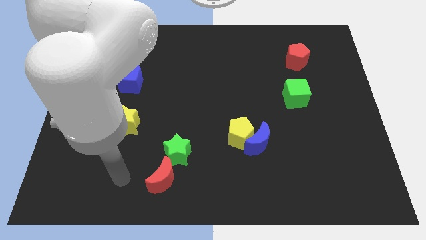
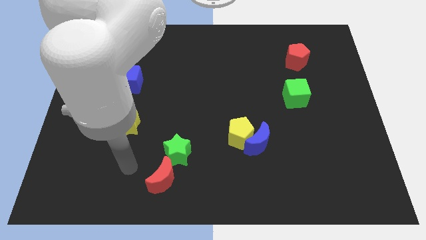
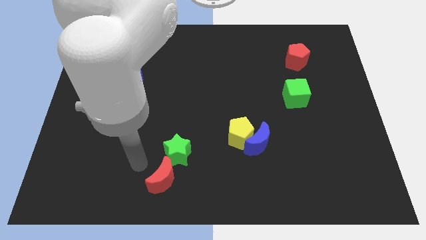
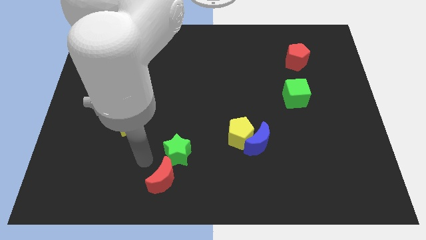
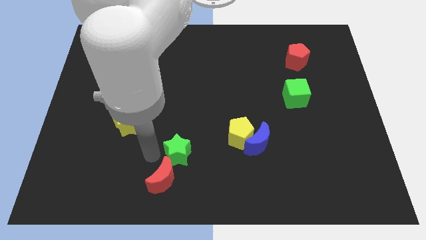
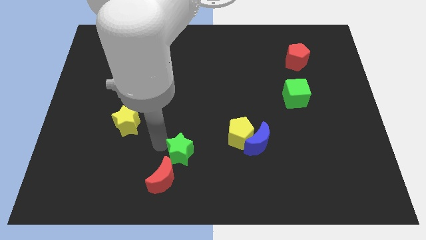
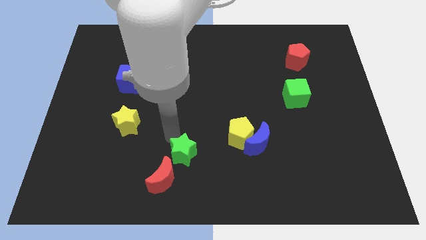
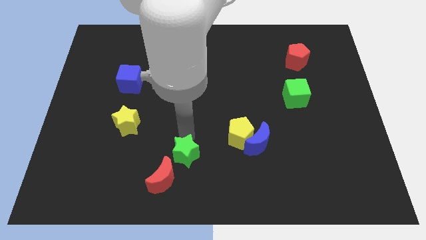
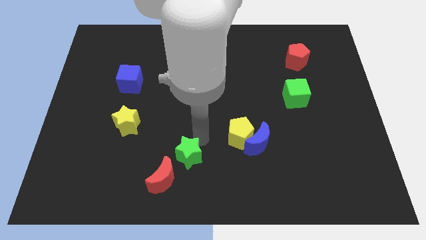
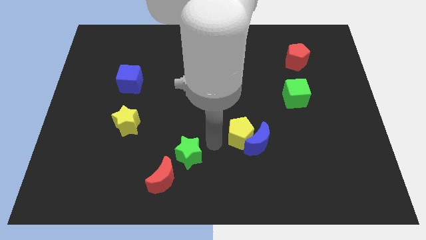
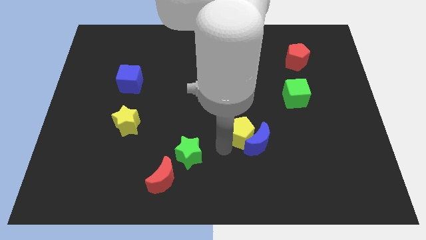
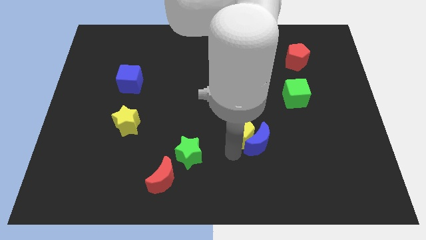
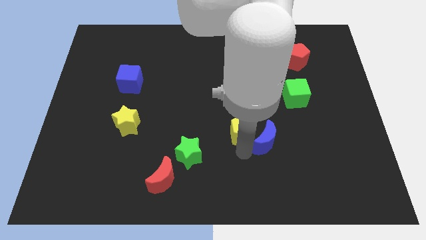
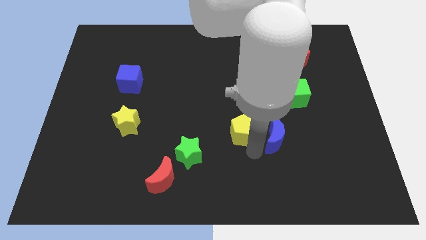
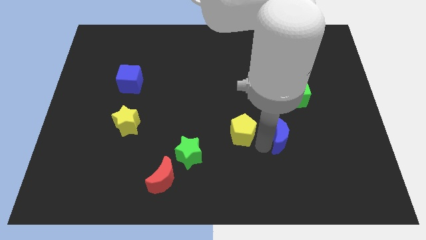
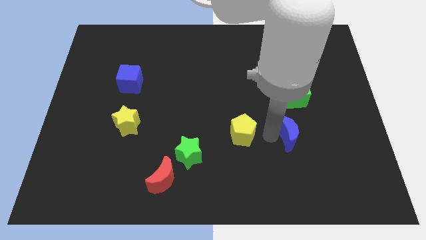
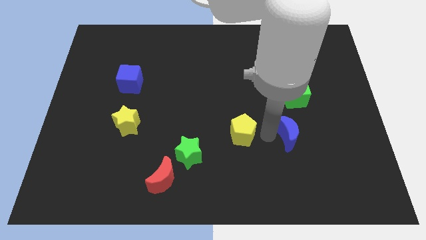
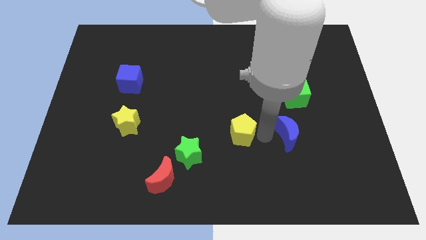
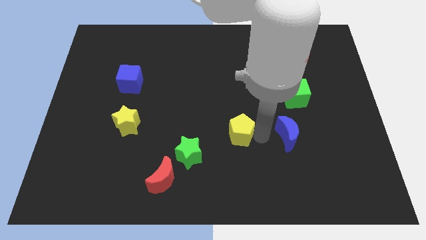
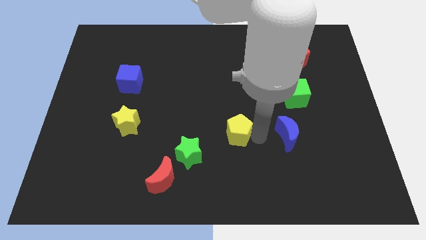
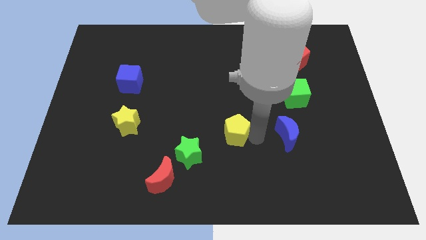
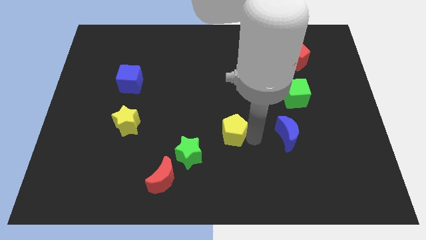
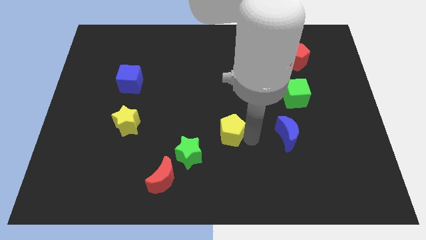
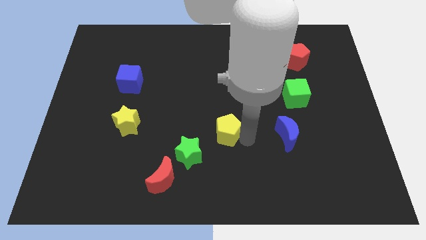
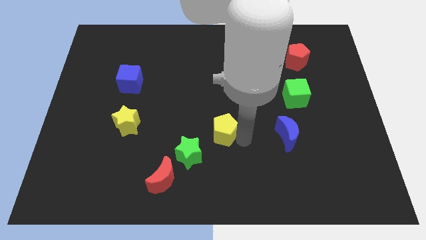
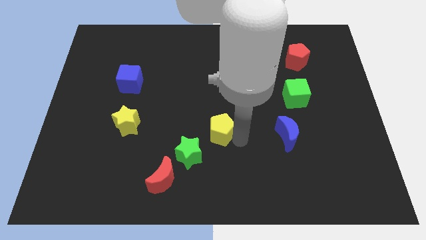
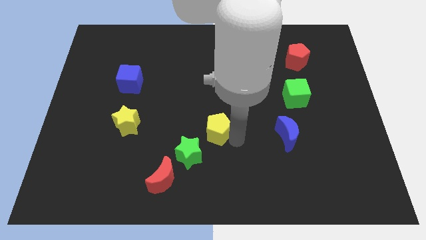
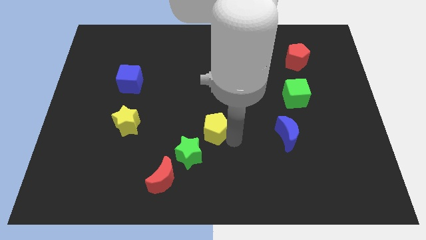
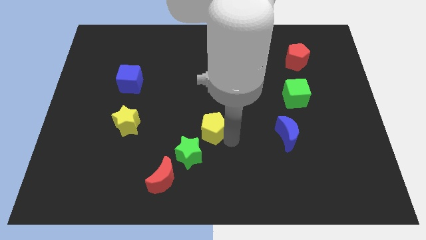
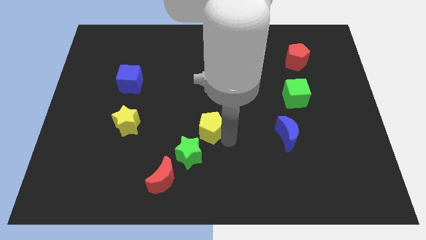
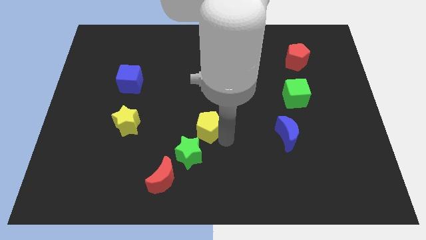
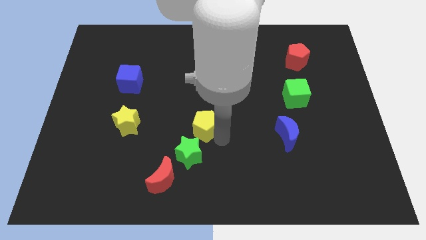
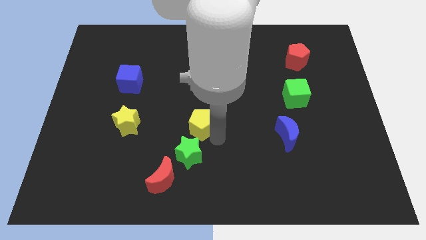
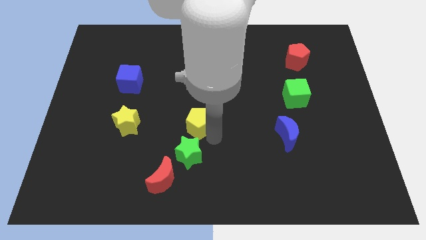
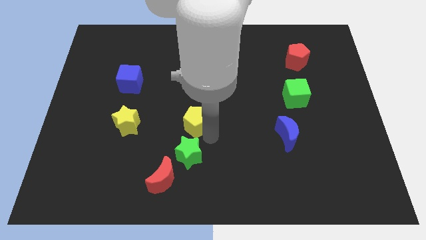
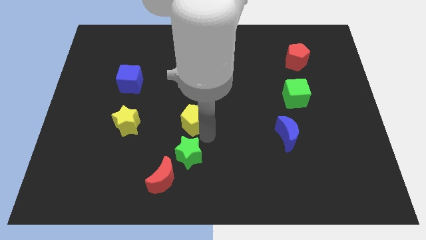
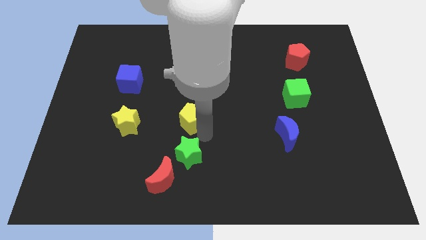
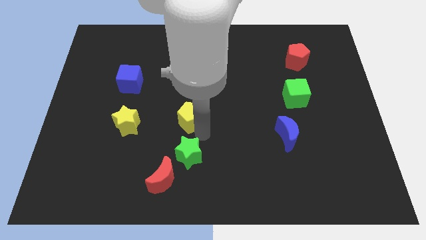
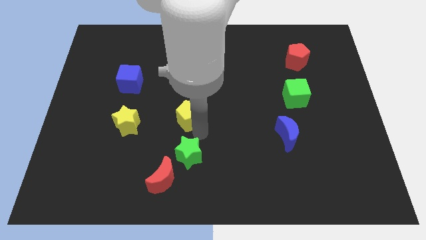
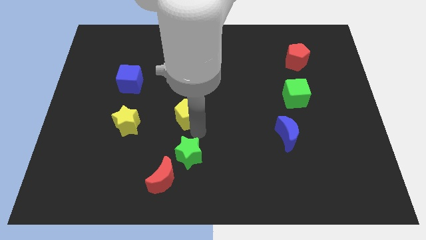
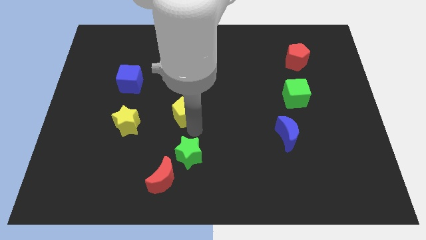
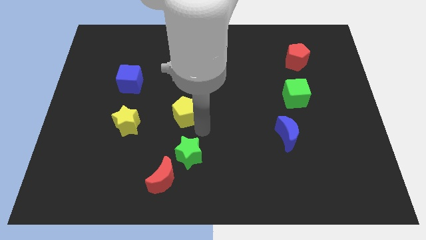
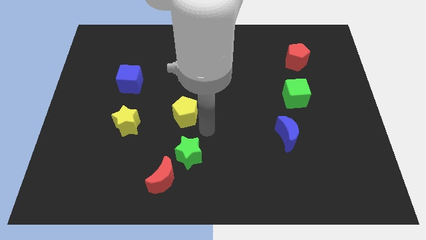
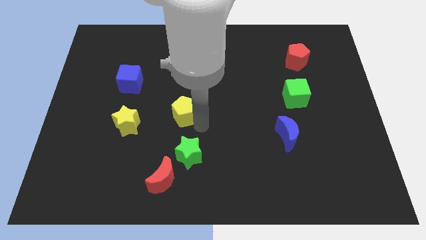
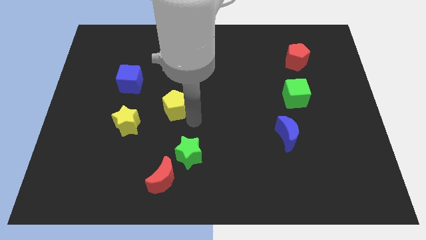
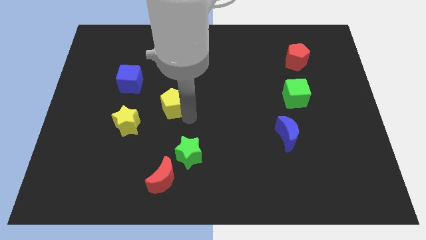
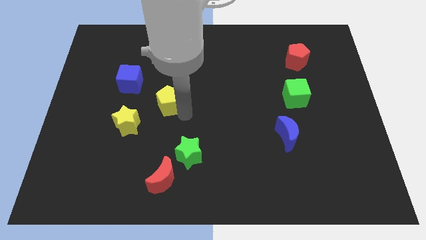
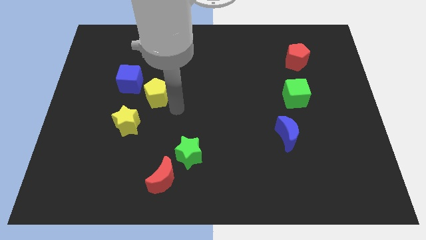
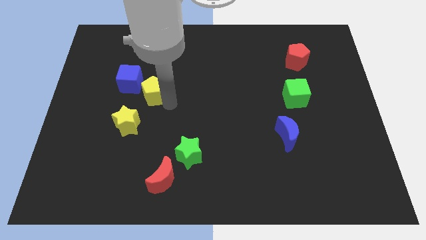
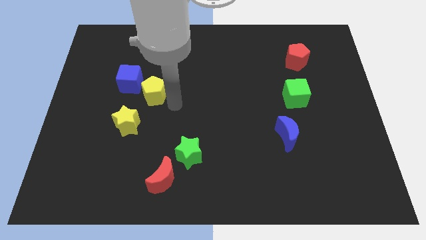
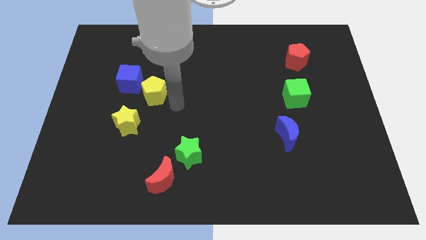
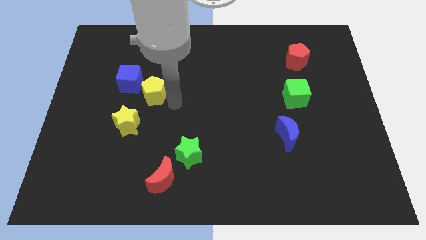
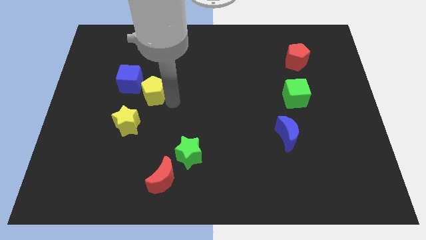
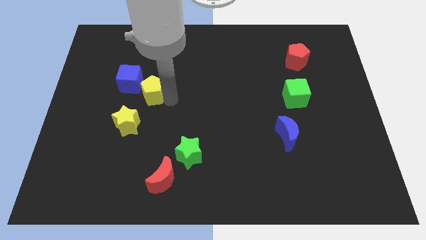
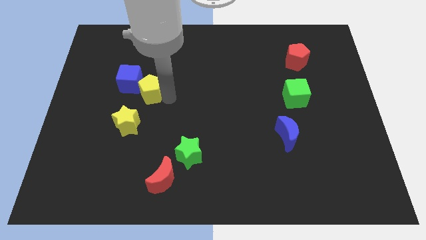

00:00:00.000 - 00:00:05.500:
push the yellow pentagon to the blue cube

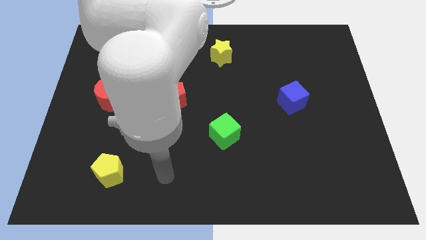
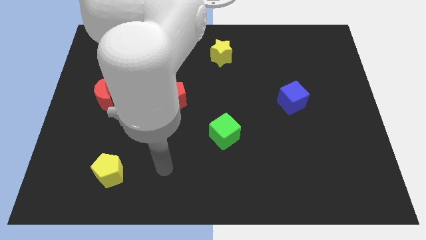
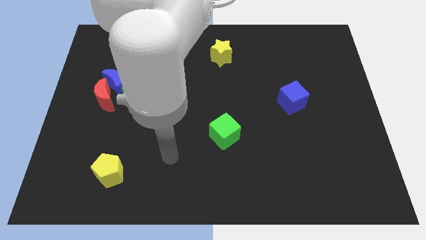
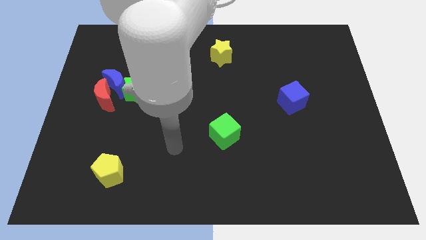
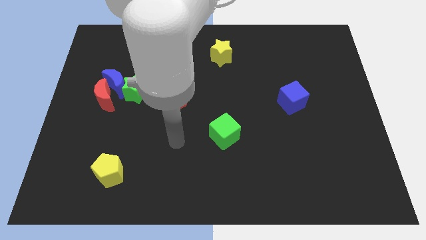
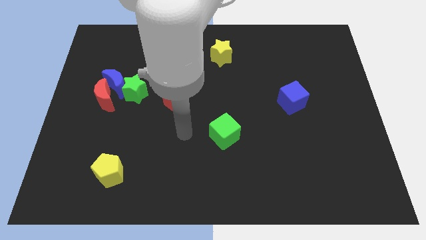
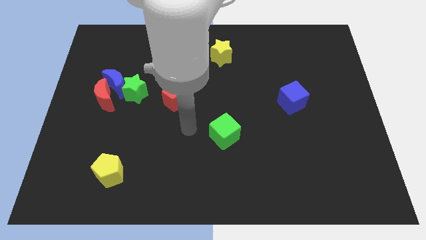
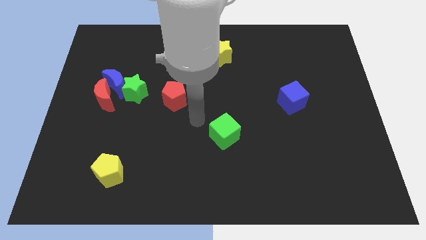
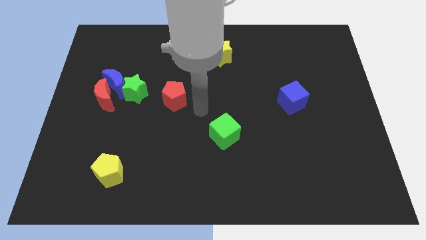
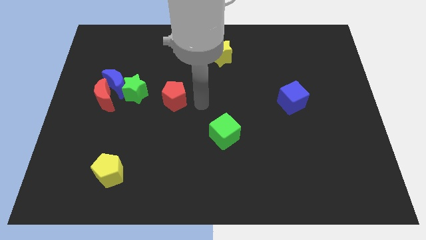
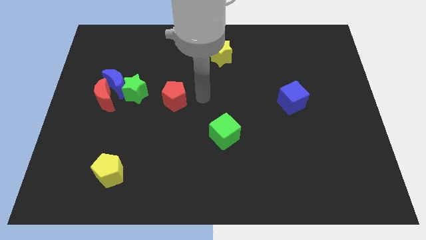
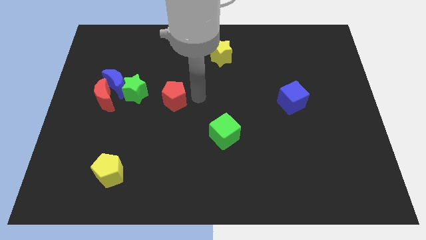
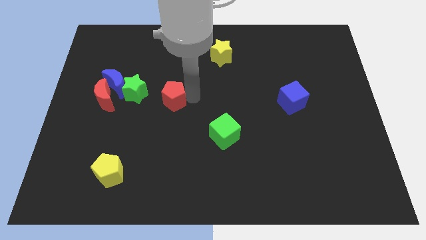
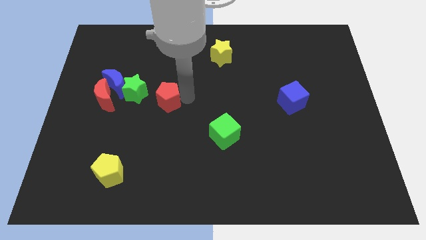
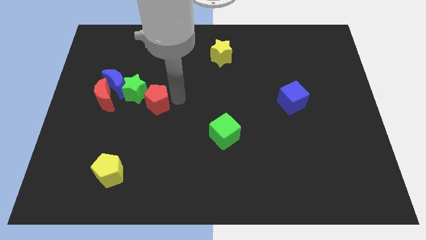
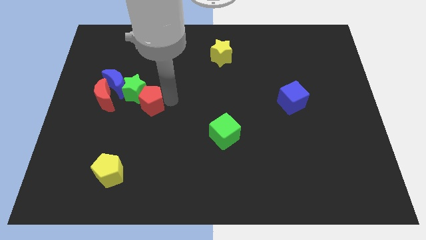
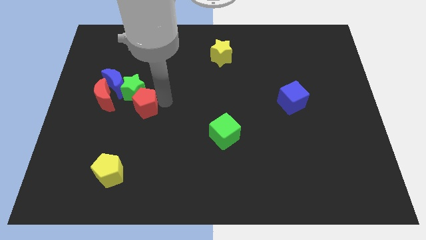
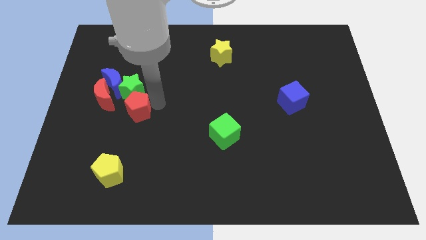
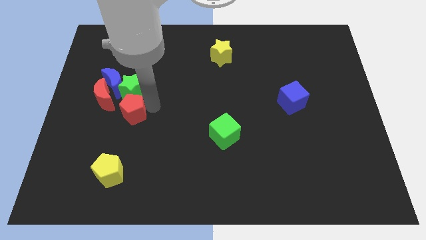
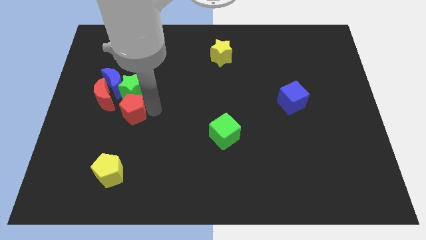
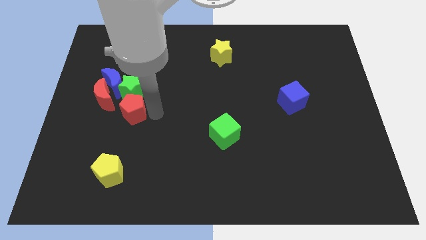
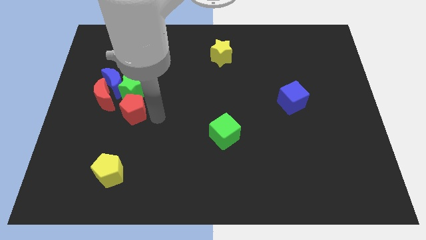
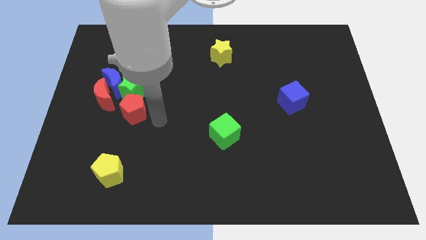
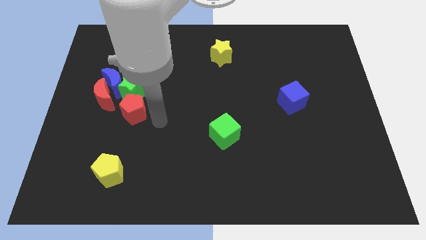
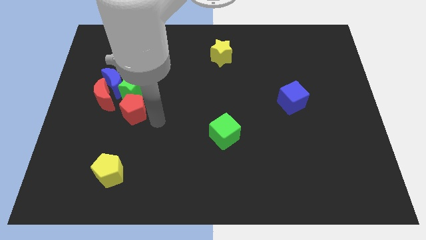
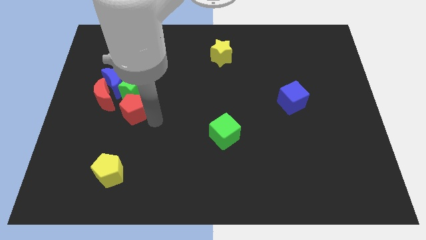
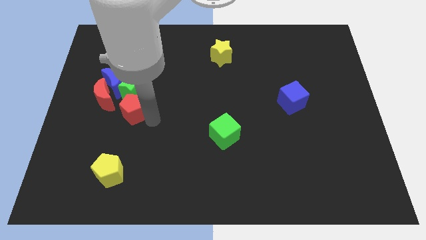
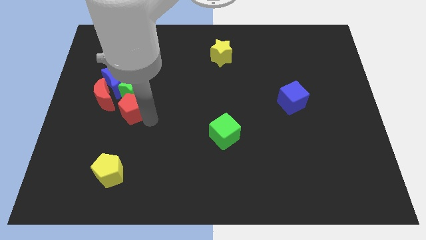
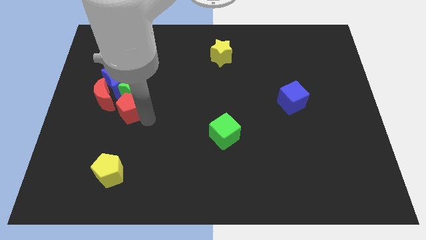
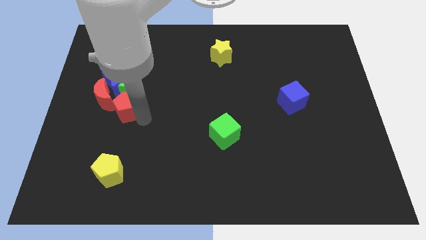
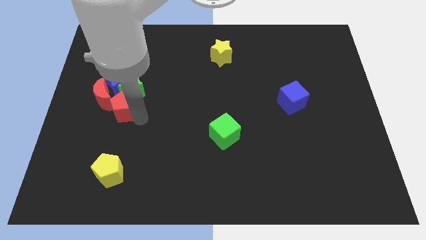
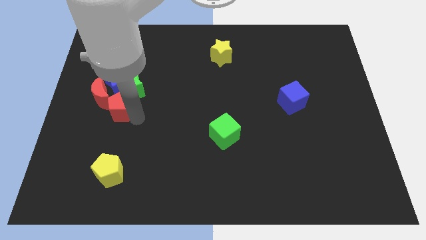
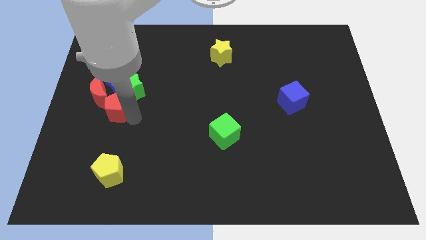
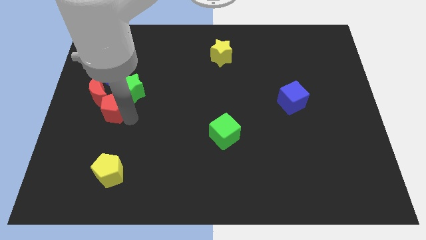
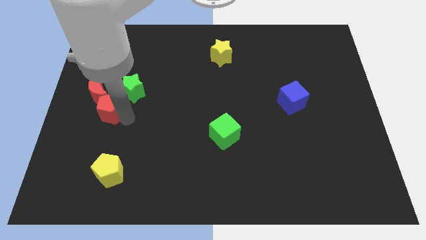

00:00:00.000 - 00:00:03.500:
push the red pentagon to the red moon
